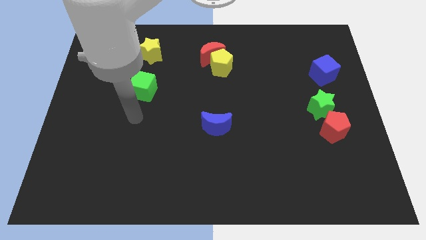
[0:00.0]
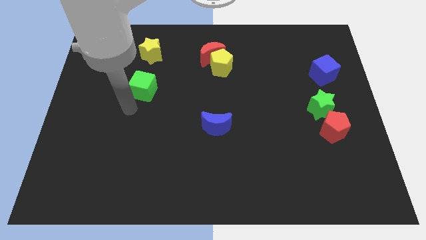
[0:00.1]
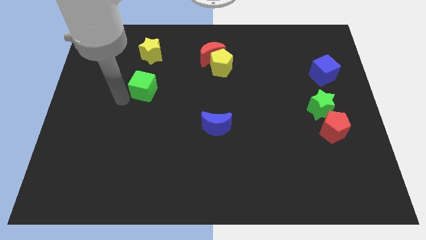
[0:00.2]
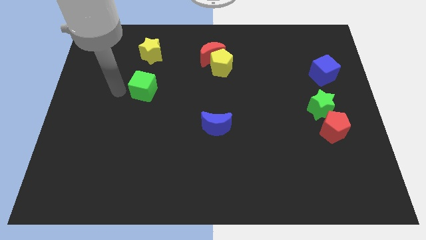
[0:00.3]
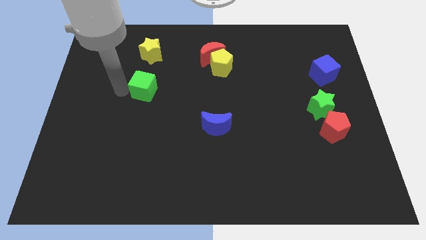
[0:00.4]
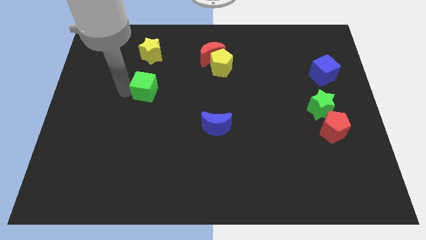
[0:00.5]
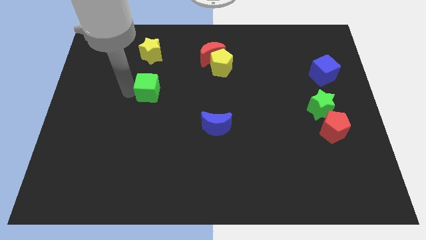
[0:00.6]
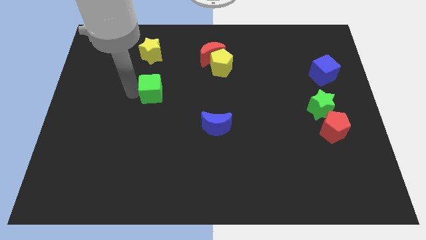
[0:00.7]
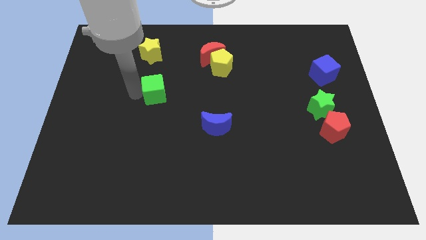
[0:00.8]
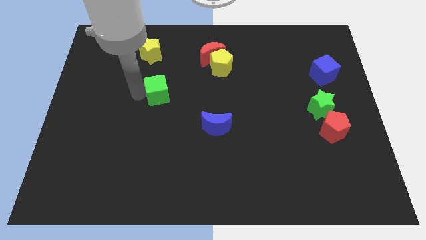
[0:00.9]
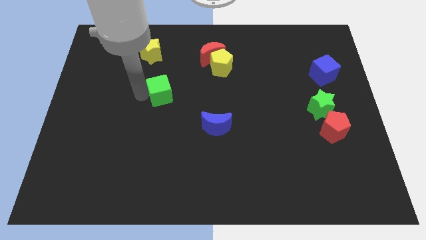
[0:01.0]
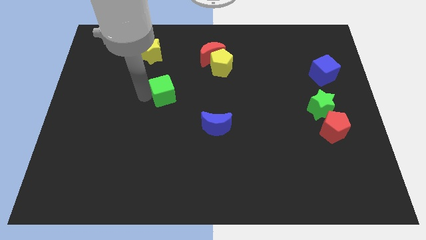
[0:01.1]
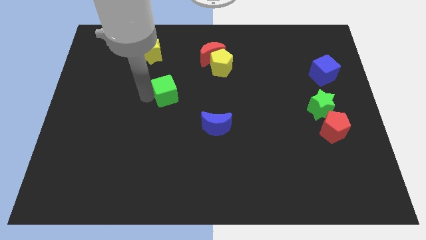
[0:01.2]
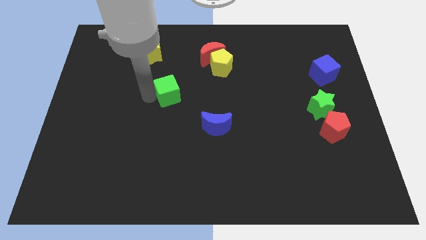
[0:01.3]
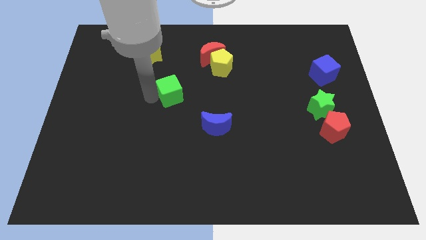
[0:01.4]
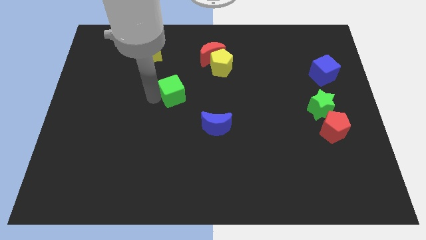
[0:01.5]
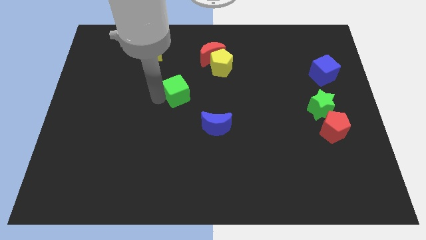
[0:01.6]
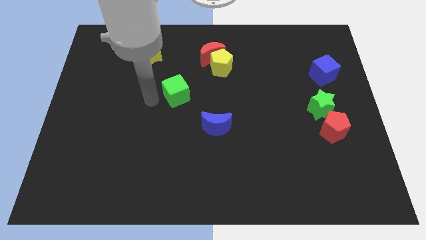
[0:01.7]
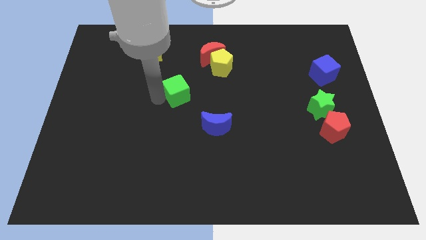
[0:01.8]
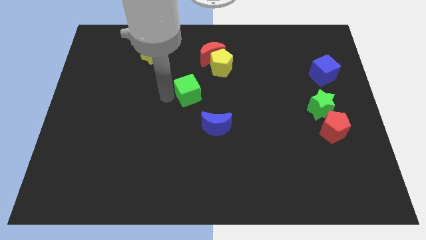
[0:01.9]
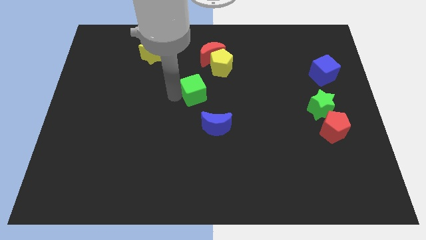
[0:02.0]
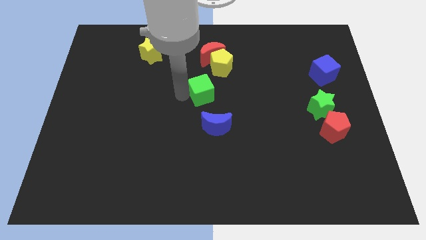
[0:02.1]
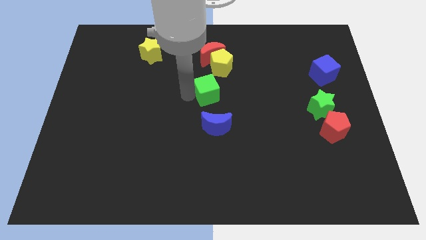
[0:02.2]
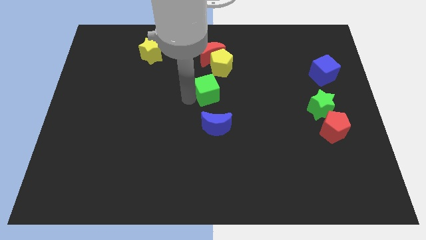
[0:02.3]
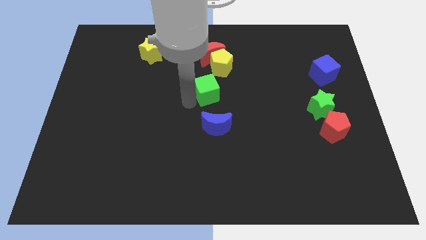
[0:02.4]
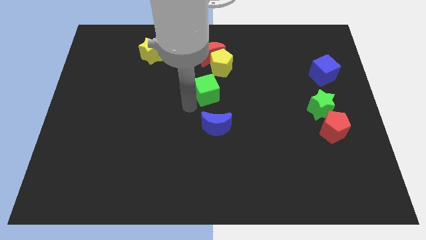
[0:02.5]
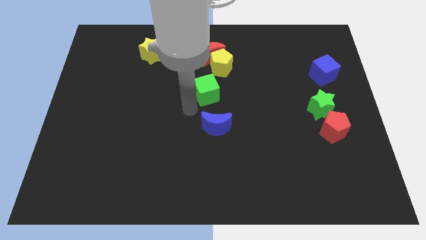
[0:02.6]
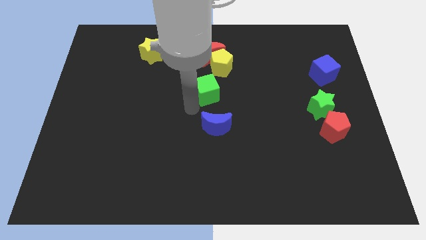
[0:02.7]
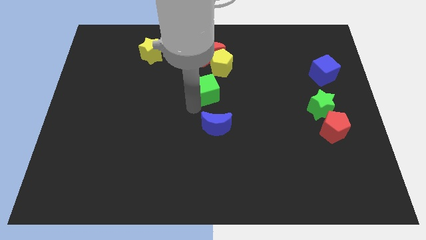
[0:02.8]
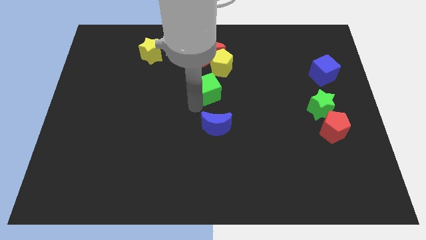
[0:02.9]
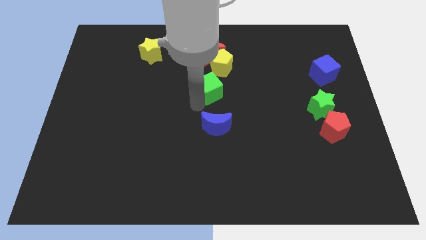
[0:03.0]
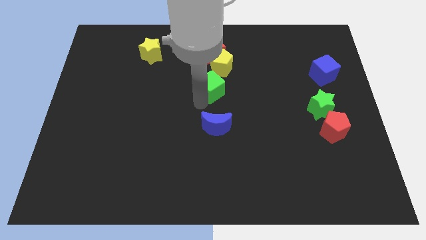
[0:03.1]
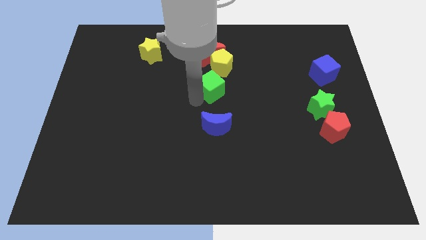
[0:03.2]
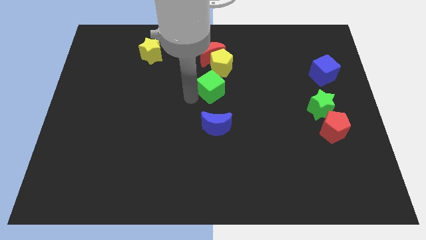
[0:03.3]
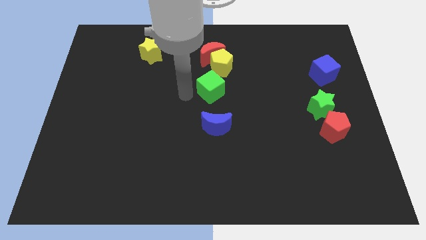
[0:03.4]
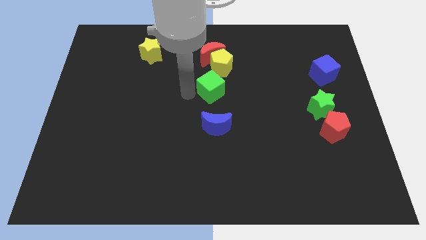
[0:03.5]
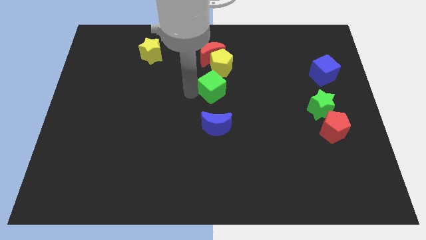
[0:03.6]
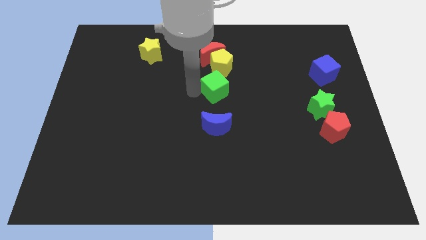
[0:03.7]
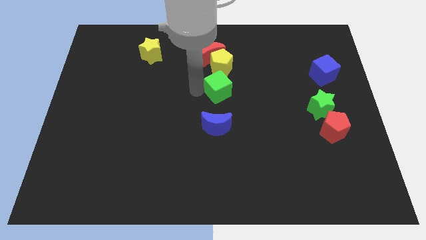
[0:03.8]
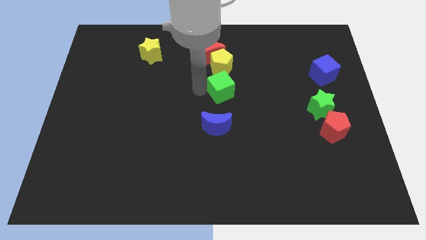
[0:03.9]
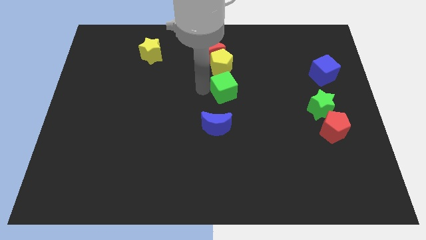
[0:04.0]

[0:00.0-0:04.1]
slide the green cube right

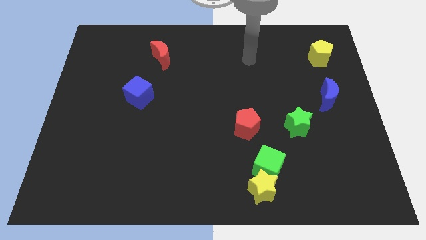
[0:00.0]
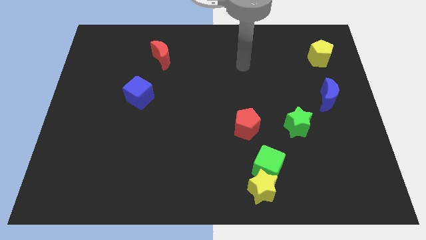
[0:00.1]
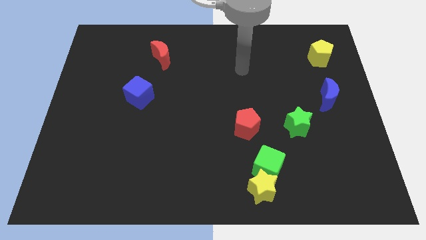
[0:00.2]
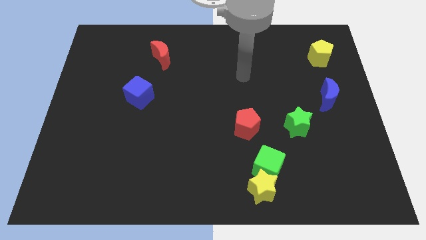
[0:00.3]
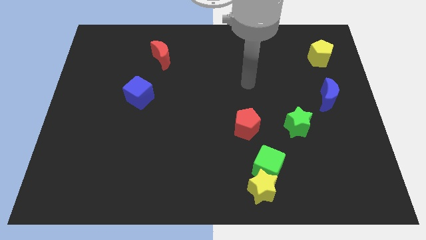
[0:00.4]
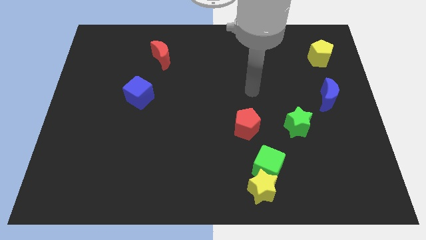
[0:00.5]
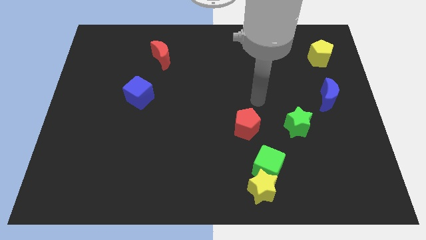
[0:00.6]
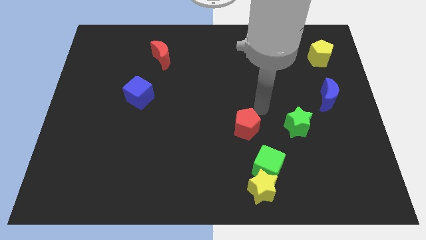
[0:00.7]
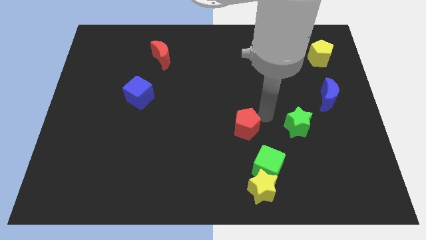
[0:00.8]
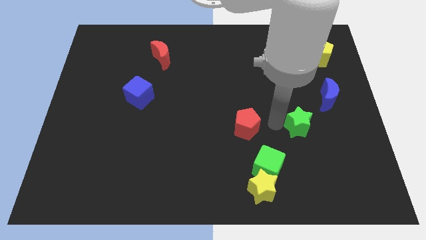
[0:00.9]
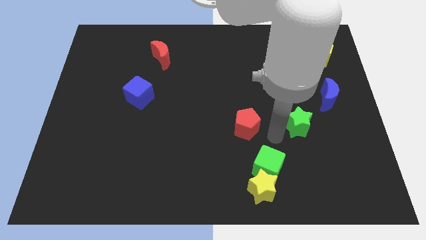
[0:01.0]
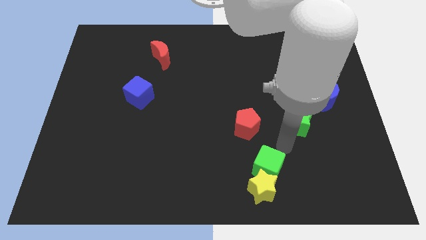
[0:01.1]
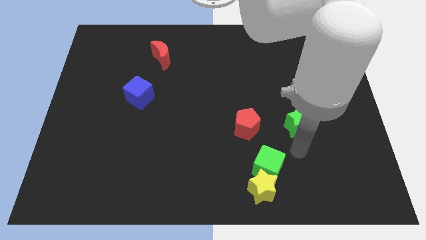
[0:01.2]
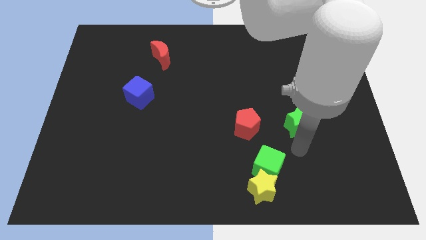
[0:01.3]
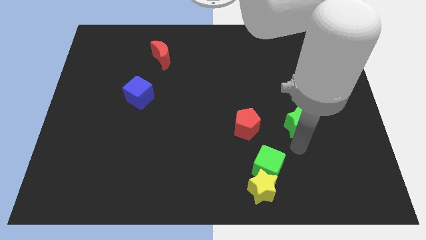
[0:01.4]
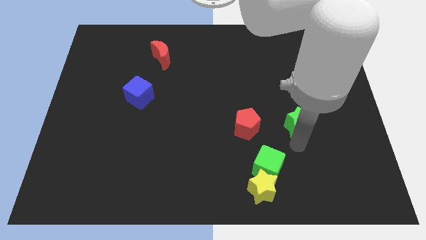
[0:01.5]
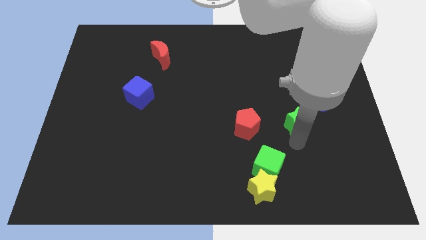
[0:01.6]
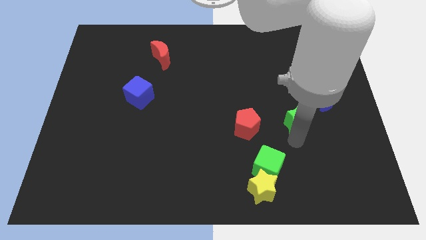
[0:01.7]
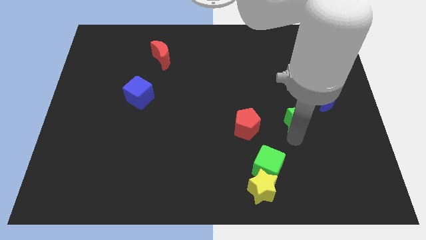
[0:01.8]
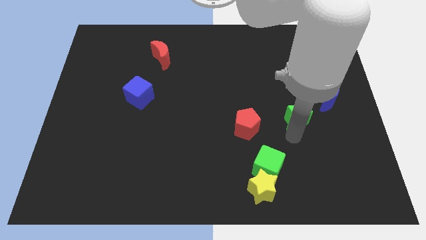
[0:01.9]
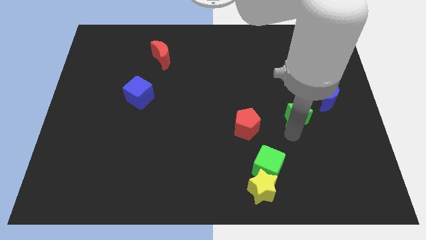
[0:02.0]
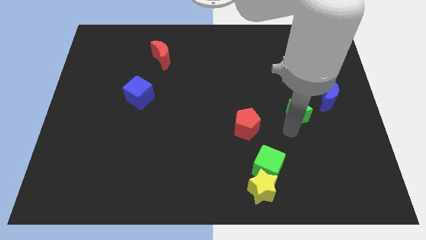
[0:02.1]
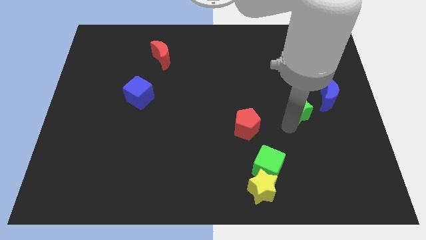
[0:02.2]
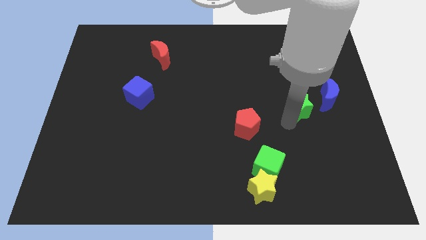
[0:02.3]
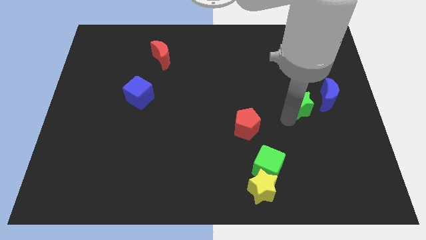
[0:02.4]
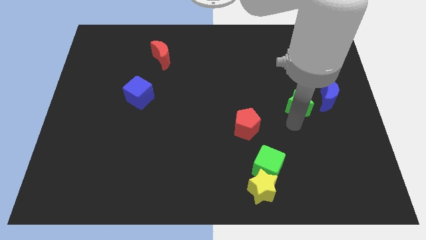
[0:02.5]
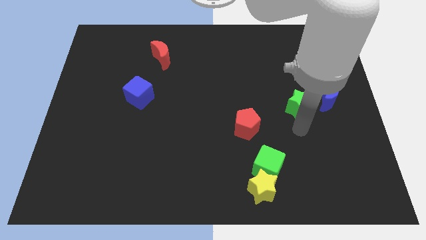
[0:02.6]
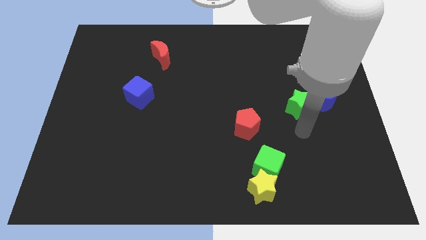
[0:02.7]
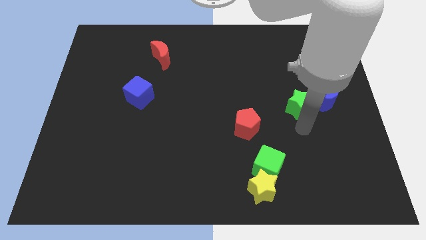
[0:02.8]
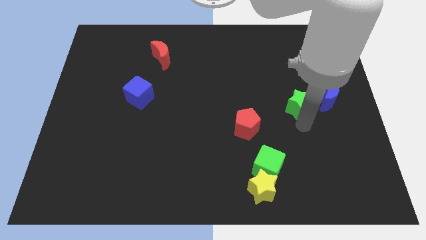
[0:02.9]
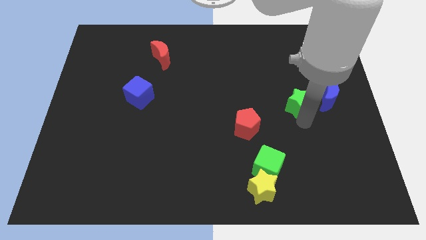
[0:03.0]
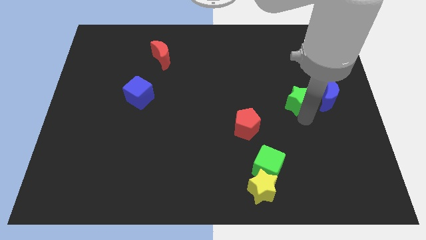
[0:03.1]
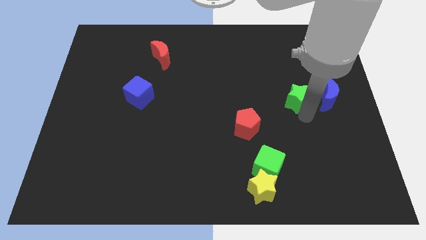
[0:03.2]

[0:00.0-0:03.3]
push the green star a little bit up

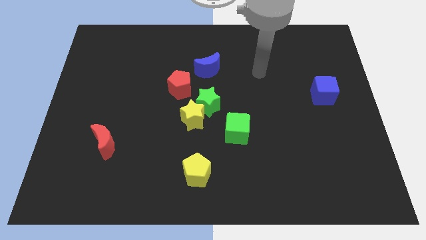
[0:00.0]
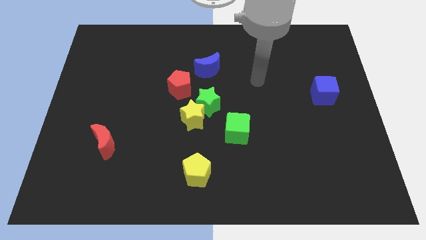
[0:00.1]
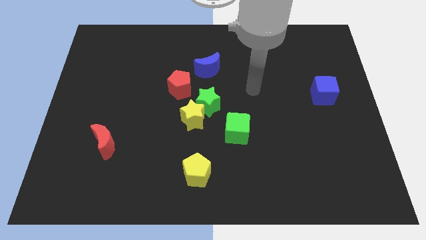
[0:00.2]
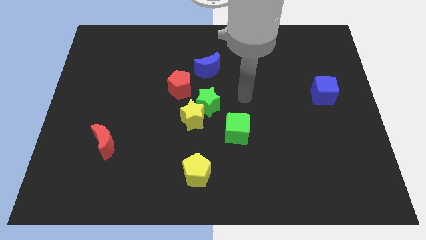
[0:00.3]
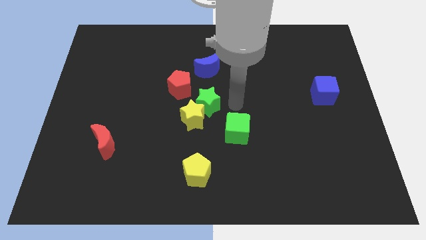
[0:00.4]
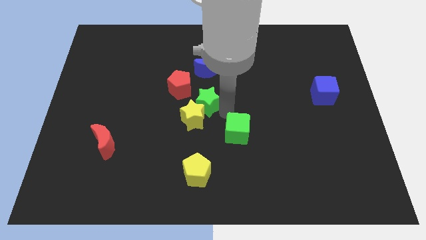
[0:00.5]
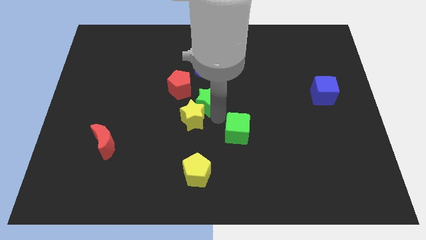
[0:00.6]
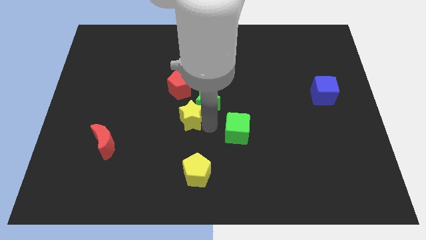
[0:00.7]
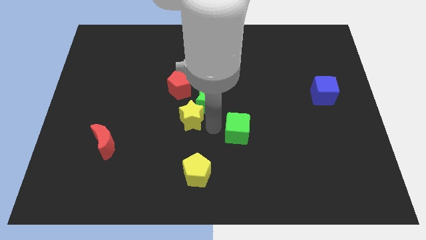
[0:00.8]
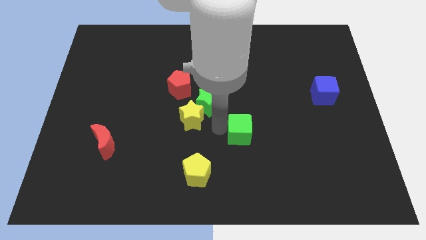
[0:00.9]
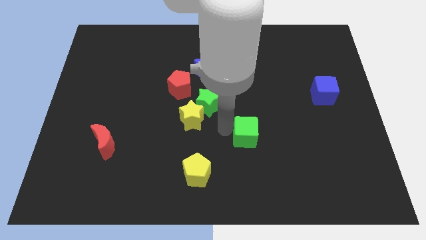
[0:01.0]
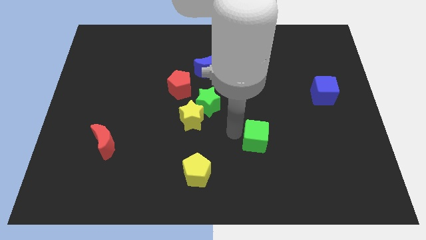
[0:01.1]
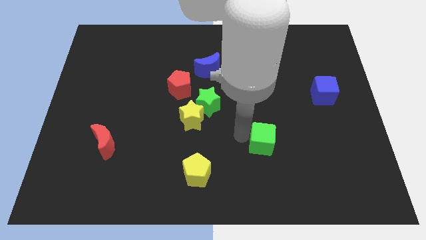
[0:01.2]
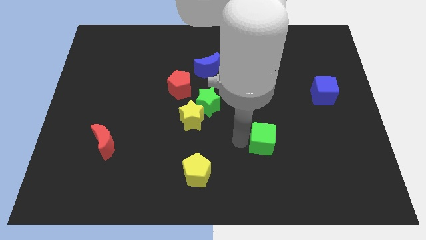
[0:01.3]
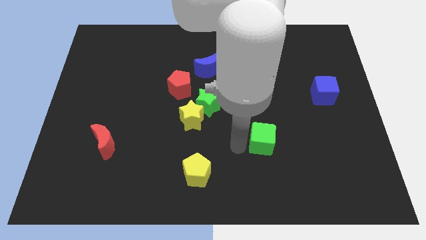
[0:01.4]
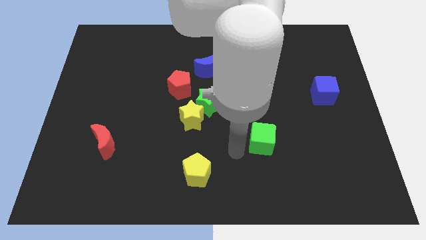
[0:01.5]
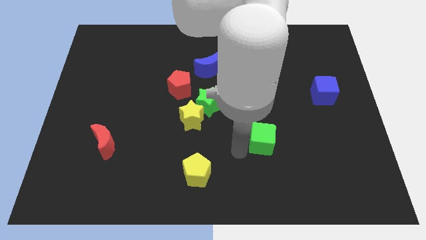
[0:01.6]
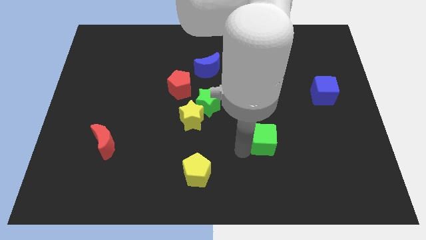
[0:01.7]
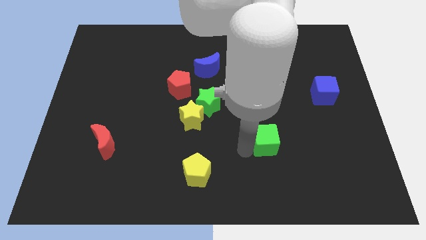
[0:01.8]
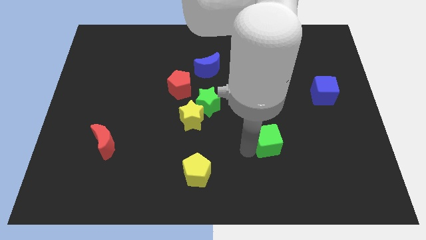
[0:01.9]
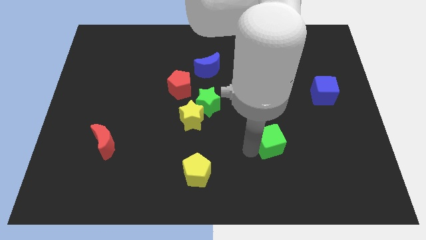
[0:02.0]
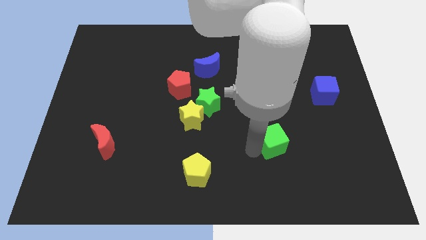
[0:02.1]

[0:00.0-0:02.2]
move the green cube to the right a little bit
